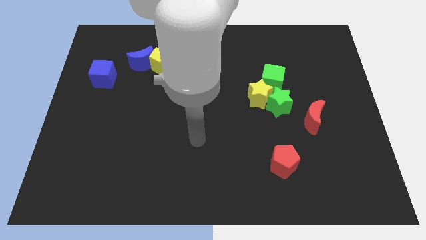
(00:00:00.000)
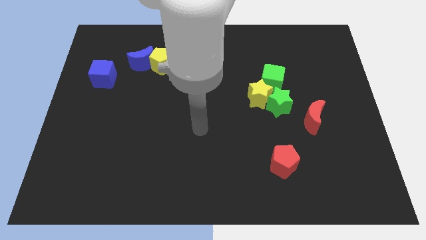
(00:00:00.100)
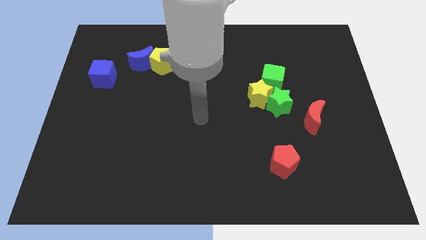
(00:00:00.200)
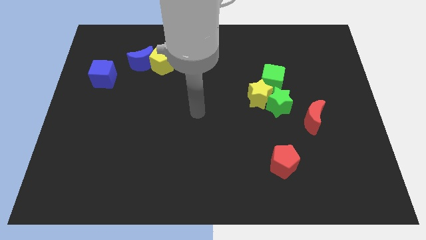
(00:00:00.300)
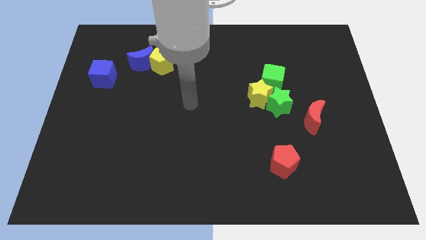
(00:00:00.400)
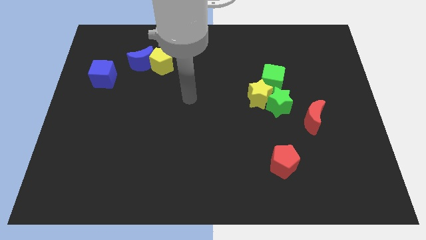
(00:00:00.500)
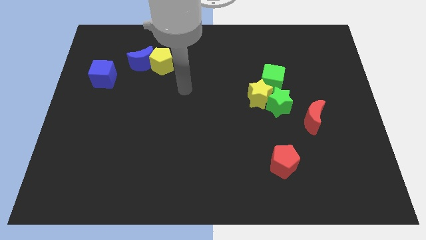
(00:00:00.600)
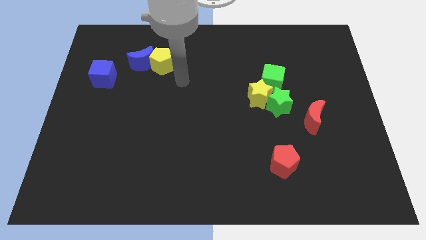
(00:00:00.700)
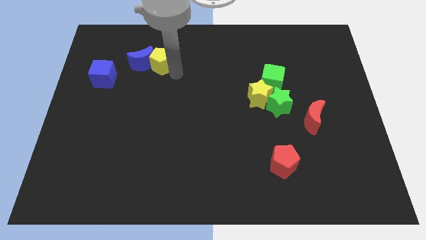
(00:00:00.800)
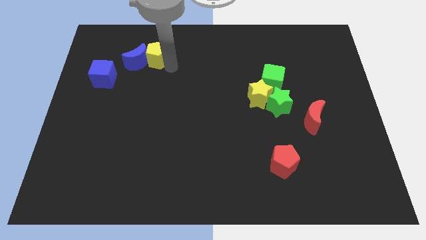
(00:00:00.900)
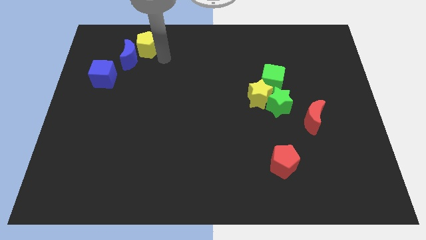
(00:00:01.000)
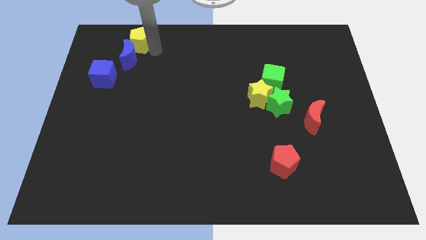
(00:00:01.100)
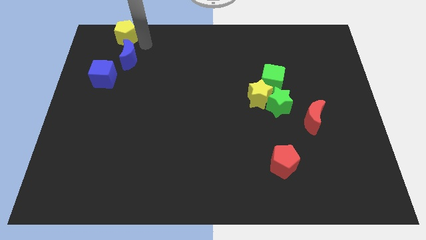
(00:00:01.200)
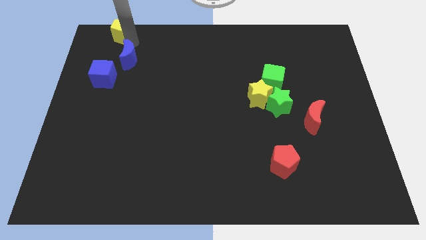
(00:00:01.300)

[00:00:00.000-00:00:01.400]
pull the blue moon apart from the yellow pentagon

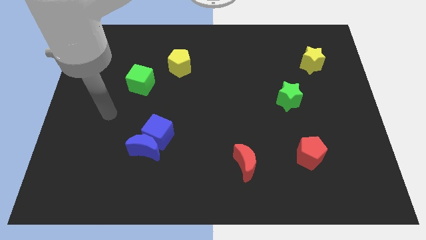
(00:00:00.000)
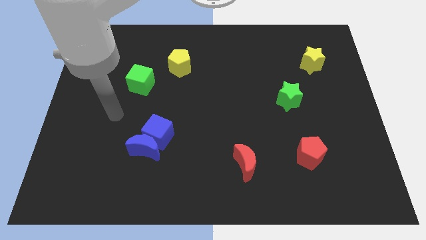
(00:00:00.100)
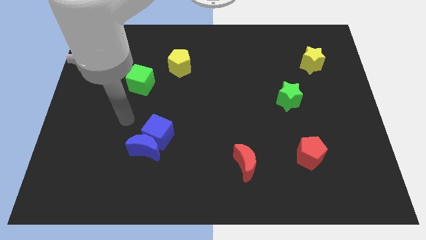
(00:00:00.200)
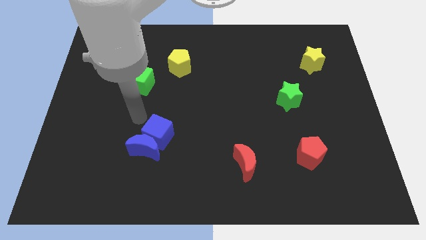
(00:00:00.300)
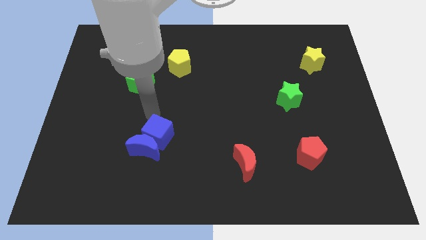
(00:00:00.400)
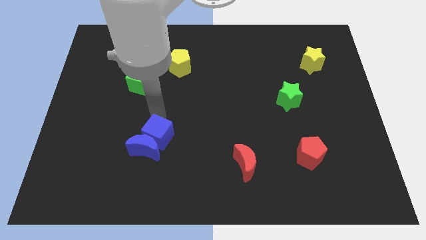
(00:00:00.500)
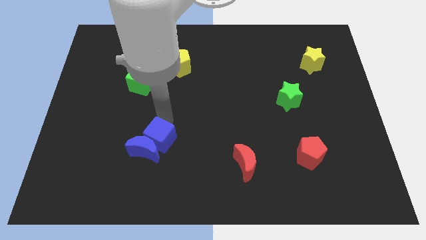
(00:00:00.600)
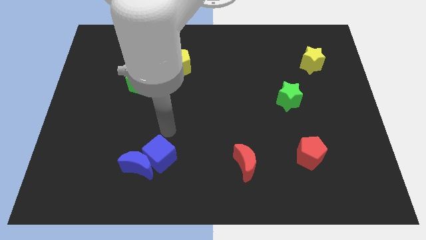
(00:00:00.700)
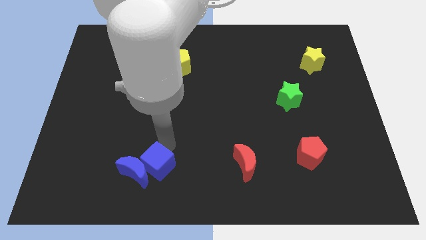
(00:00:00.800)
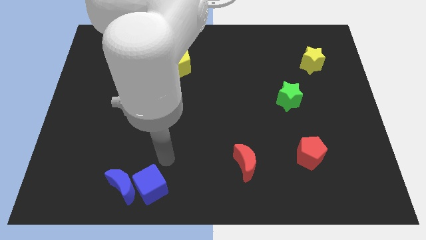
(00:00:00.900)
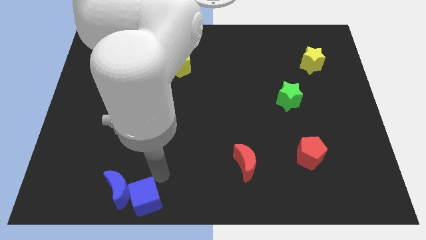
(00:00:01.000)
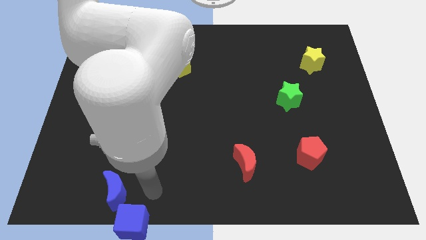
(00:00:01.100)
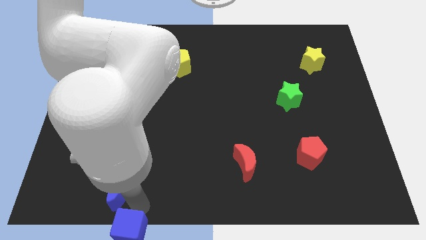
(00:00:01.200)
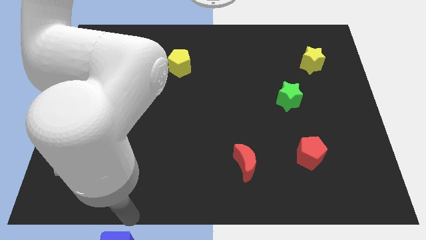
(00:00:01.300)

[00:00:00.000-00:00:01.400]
pull the blue moon apart from the blue cube

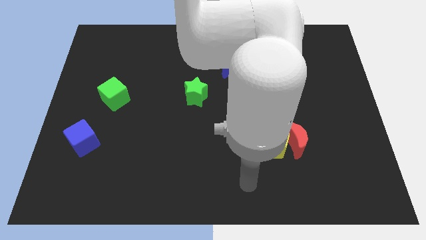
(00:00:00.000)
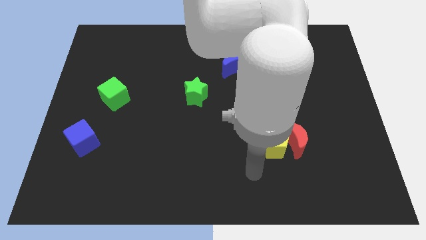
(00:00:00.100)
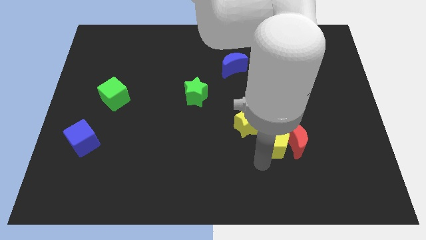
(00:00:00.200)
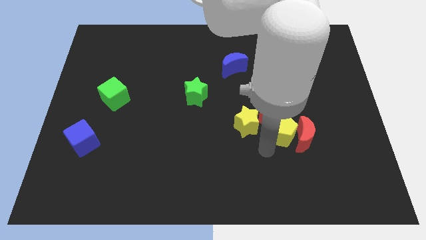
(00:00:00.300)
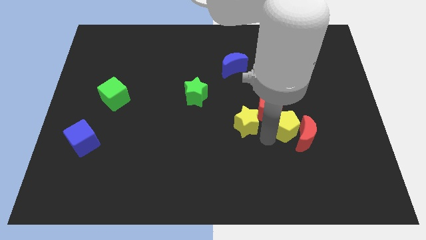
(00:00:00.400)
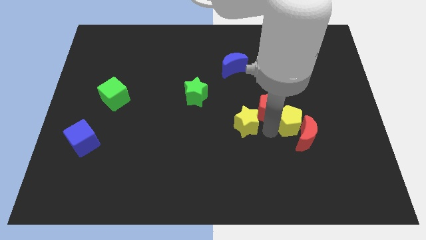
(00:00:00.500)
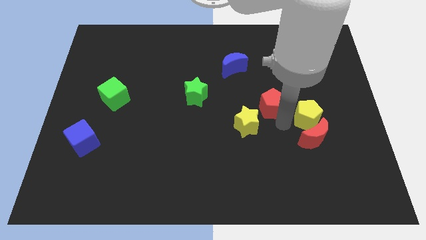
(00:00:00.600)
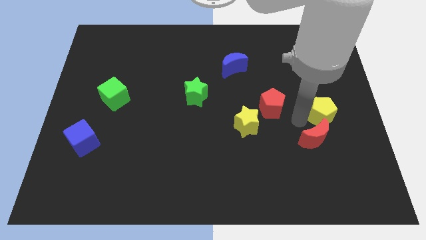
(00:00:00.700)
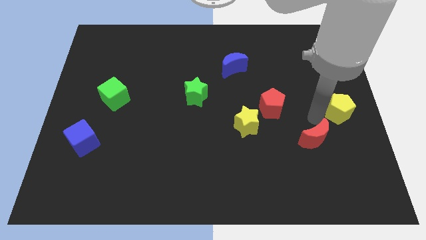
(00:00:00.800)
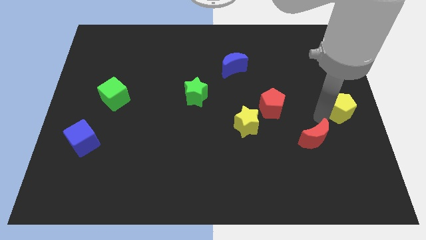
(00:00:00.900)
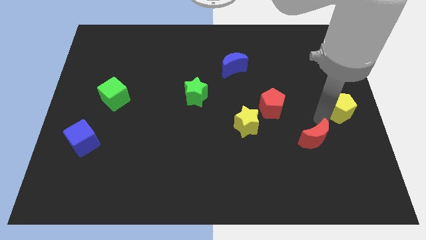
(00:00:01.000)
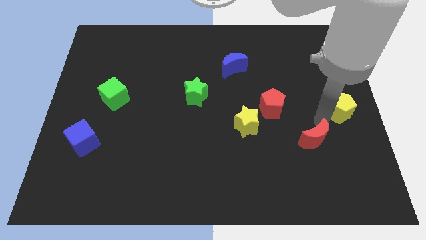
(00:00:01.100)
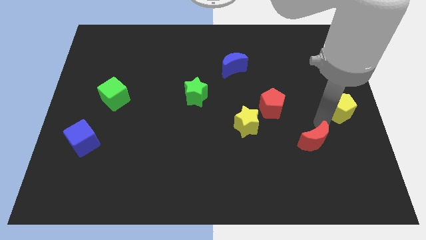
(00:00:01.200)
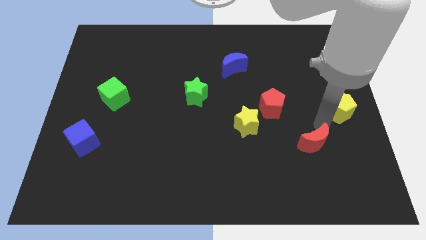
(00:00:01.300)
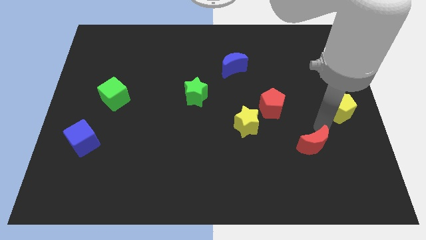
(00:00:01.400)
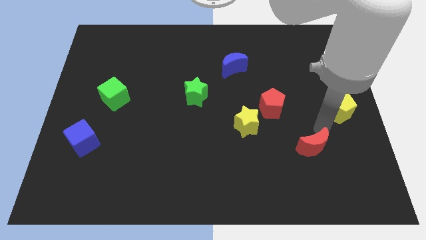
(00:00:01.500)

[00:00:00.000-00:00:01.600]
separate the red moon from the yellow pentagon and red pentagon

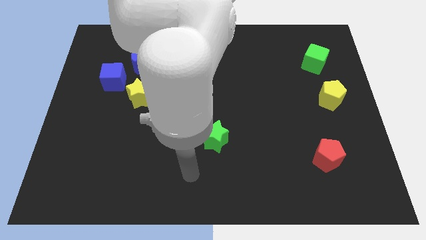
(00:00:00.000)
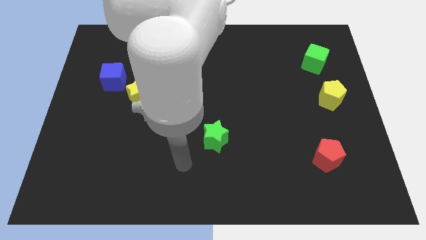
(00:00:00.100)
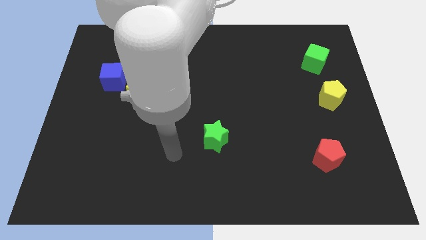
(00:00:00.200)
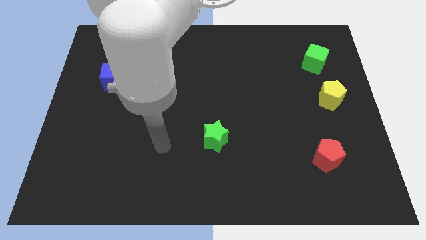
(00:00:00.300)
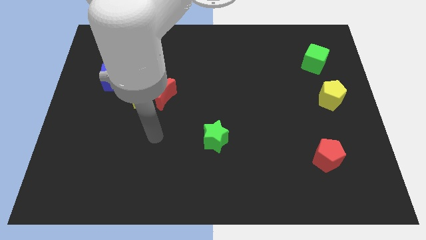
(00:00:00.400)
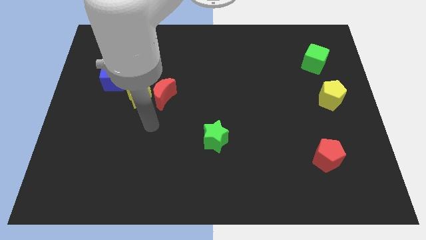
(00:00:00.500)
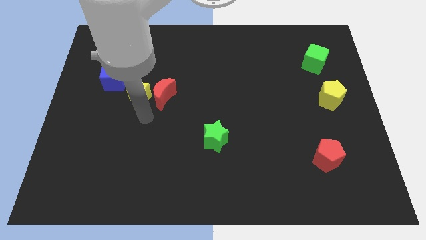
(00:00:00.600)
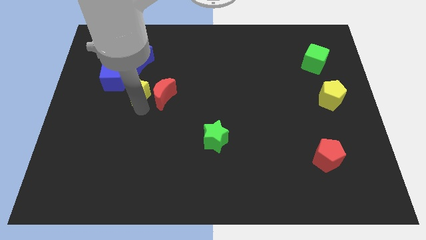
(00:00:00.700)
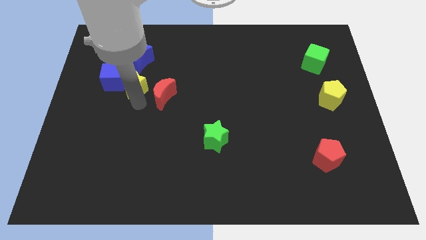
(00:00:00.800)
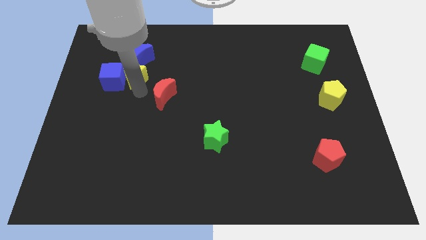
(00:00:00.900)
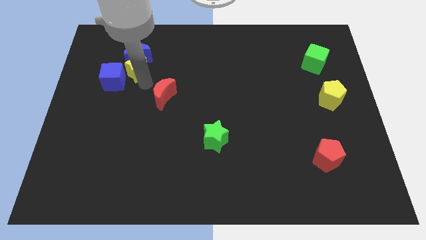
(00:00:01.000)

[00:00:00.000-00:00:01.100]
separate the red moon from the yellow star

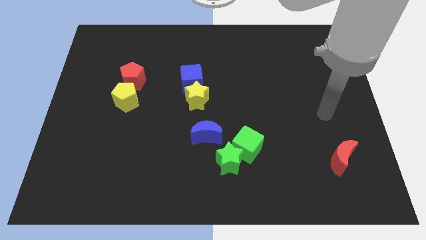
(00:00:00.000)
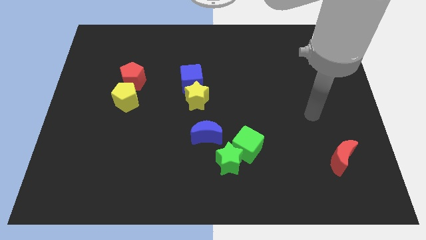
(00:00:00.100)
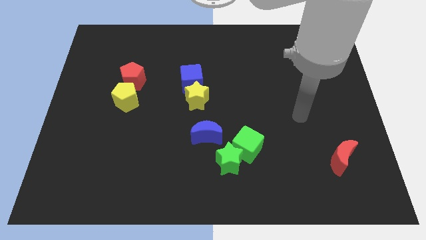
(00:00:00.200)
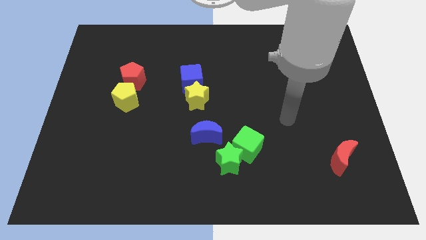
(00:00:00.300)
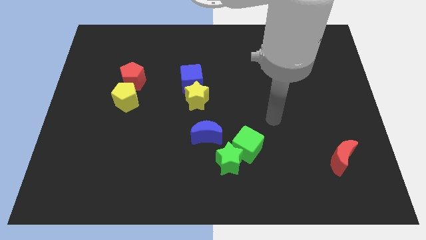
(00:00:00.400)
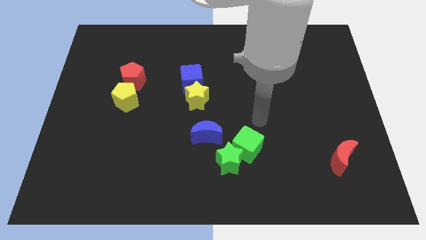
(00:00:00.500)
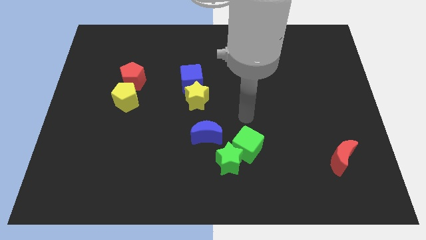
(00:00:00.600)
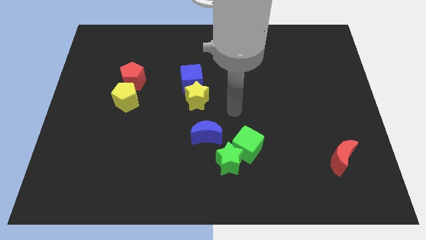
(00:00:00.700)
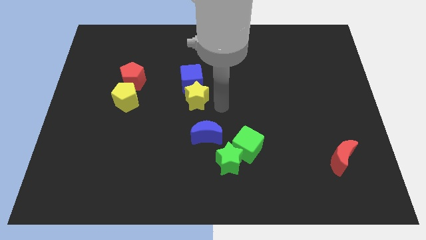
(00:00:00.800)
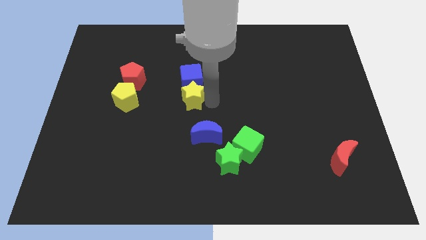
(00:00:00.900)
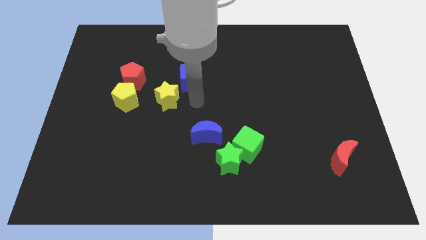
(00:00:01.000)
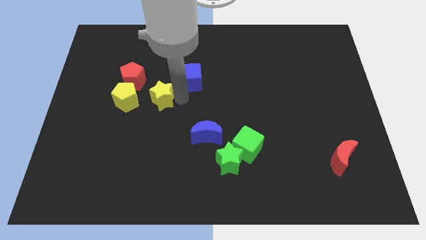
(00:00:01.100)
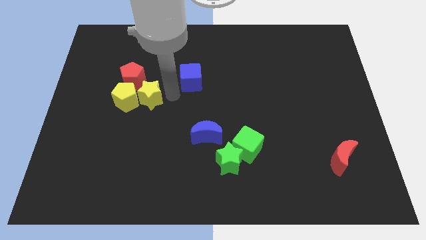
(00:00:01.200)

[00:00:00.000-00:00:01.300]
pull the blue cube apart from the yellow star

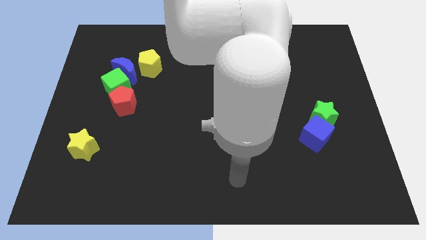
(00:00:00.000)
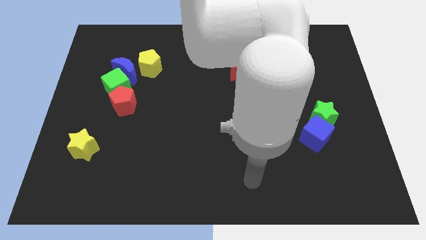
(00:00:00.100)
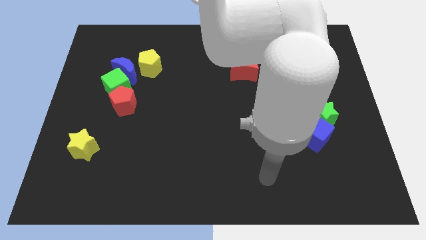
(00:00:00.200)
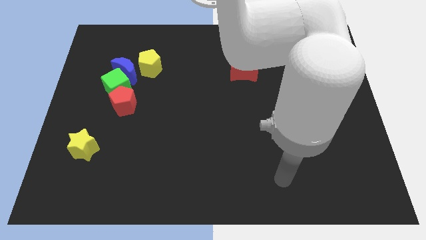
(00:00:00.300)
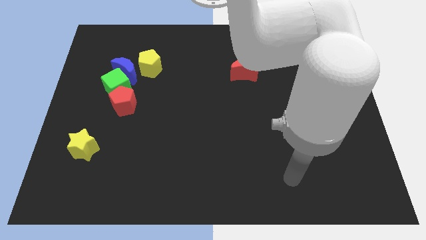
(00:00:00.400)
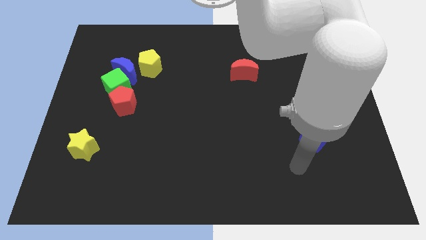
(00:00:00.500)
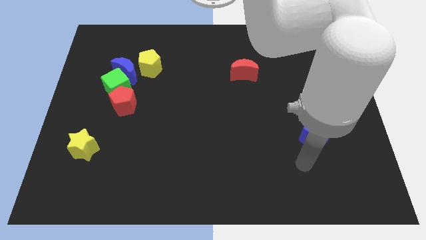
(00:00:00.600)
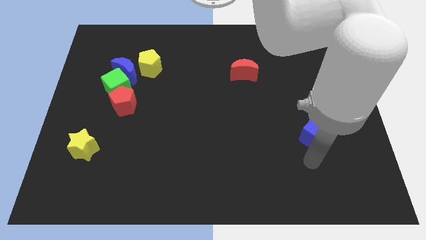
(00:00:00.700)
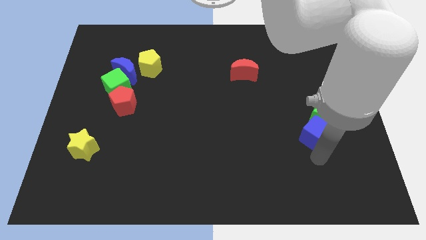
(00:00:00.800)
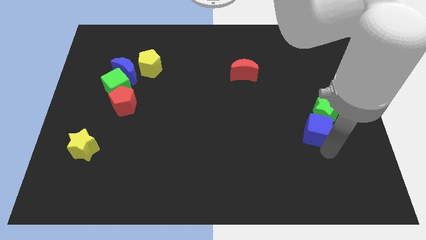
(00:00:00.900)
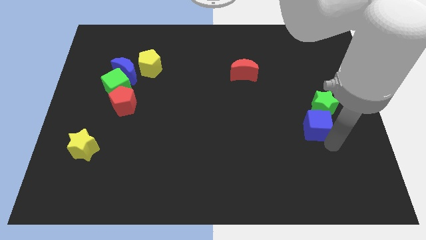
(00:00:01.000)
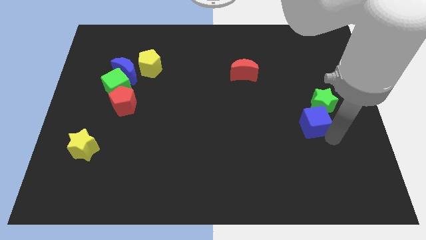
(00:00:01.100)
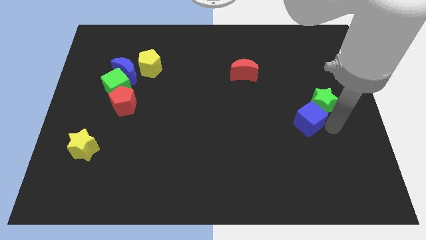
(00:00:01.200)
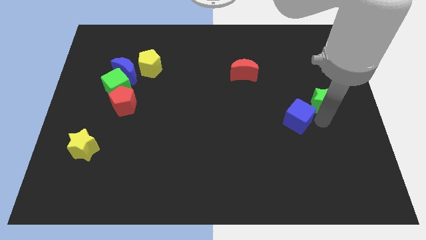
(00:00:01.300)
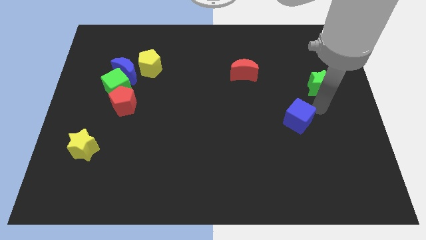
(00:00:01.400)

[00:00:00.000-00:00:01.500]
separate the blue cube from the green star

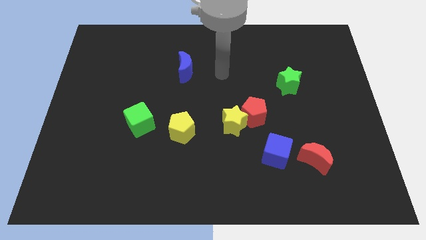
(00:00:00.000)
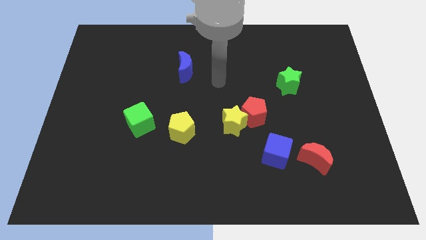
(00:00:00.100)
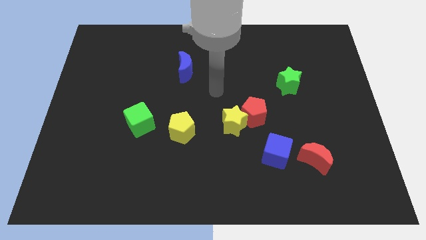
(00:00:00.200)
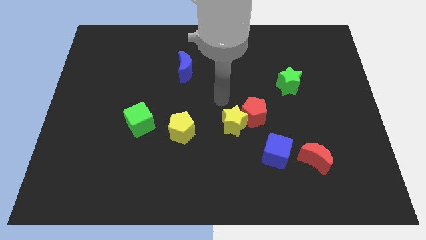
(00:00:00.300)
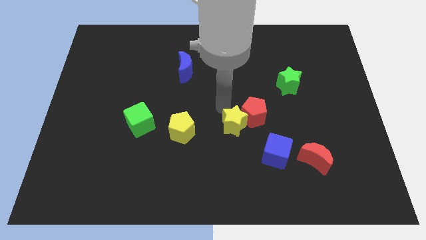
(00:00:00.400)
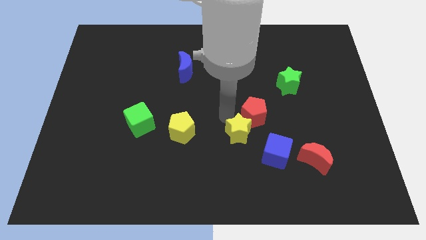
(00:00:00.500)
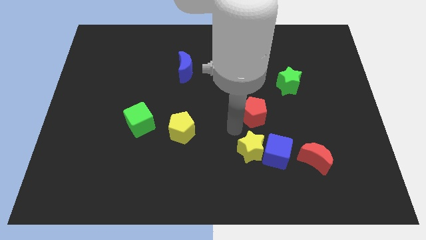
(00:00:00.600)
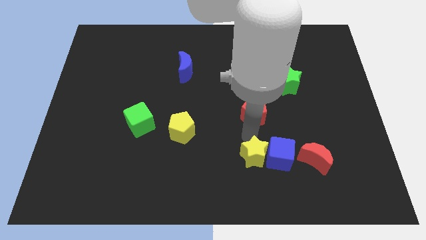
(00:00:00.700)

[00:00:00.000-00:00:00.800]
pull the red pentagon apart from the yellow star

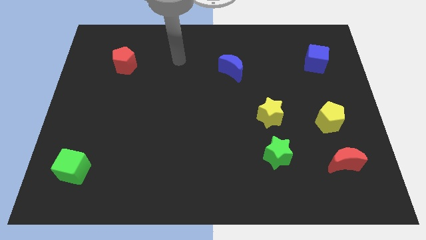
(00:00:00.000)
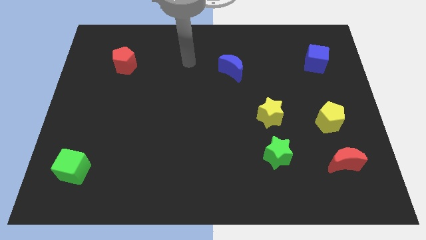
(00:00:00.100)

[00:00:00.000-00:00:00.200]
pull the green star apart from the yellow star
